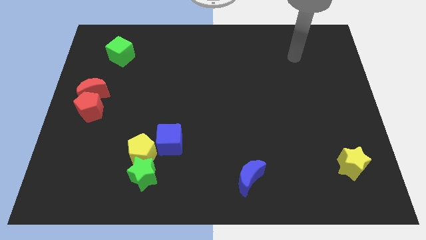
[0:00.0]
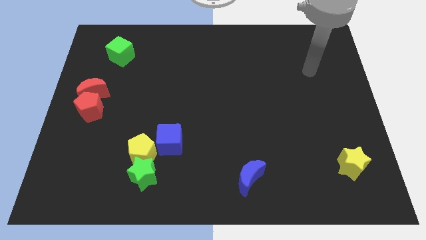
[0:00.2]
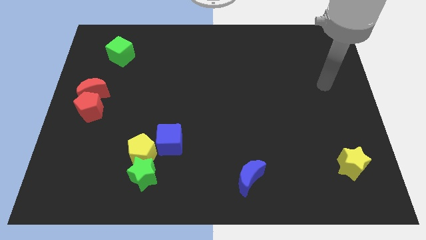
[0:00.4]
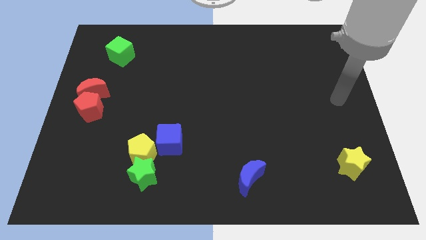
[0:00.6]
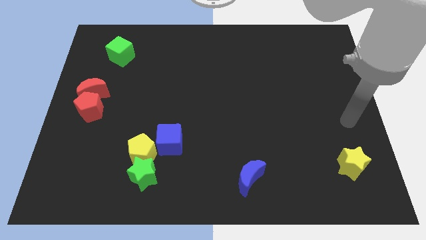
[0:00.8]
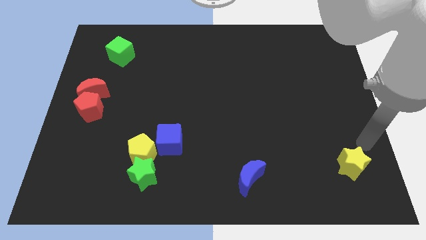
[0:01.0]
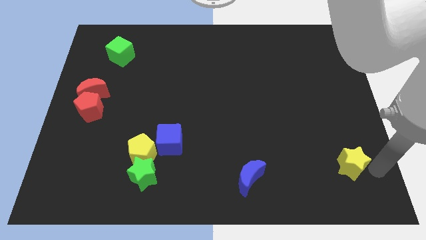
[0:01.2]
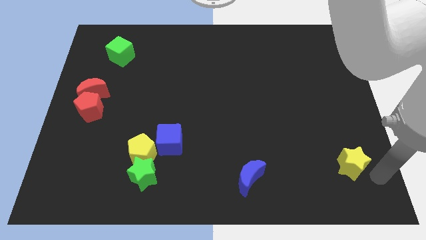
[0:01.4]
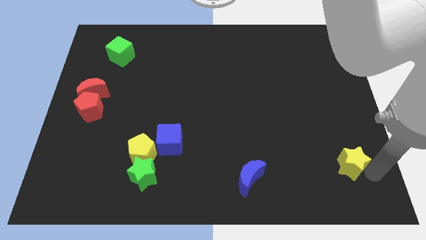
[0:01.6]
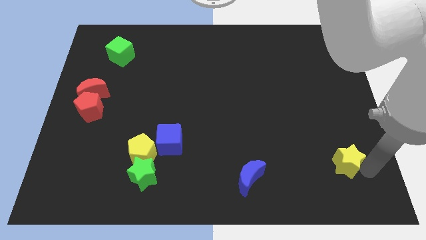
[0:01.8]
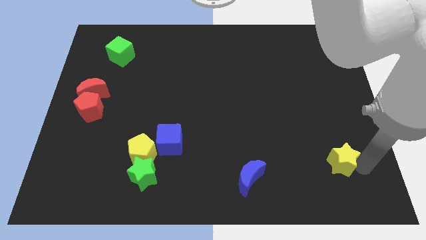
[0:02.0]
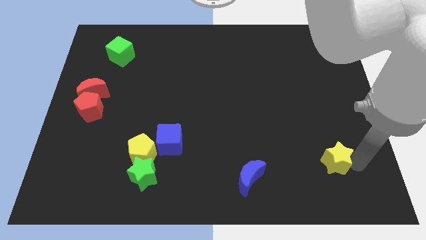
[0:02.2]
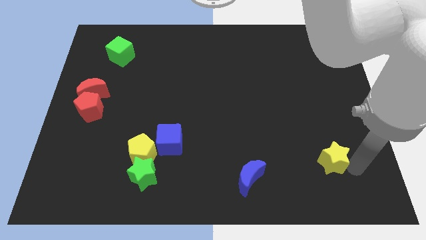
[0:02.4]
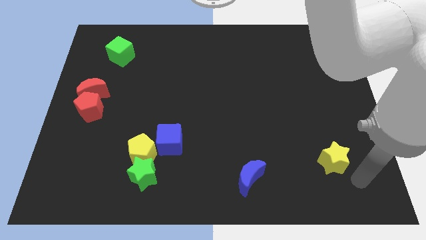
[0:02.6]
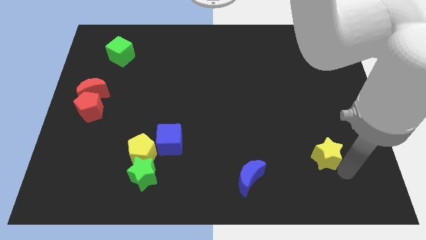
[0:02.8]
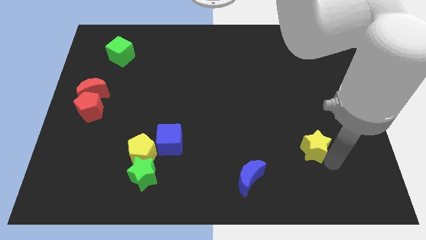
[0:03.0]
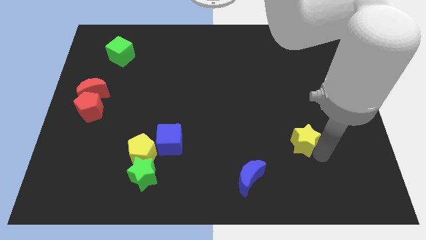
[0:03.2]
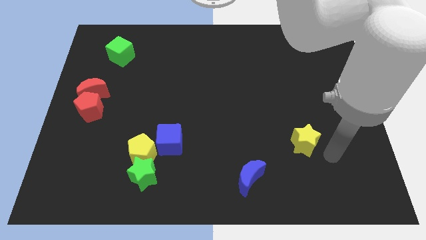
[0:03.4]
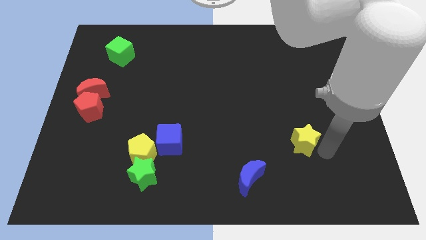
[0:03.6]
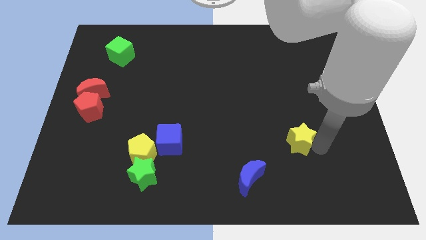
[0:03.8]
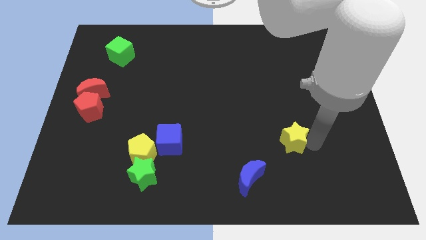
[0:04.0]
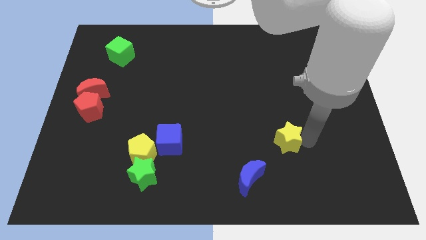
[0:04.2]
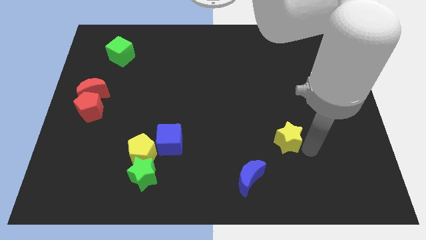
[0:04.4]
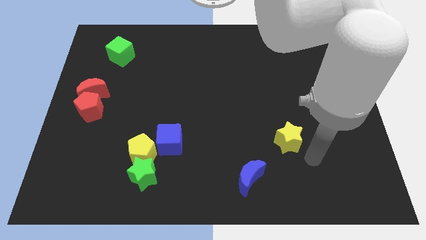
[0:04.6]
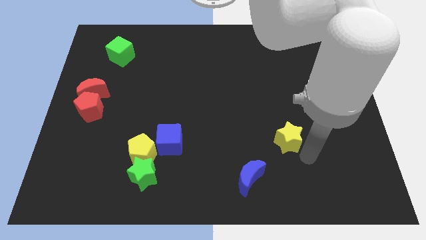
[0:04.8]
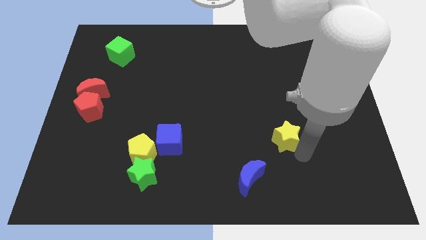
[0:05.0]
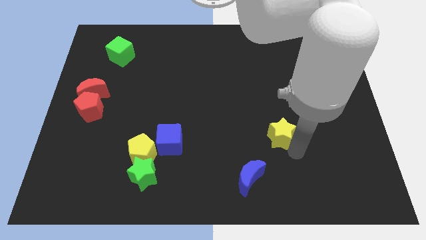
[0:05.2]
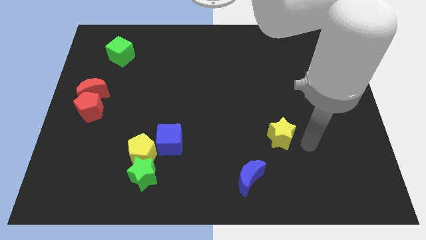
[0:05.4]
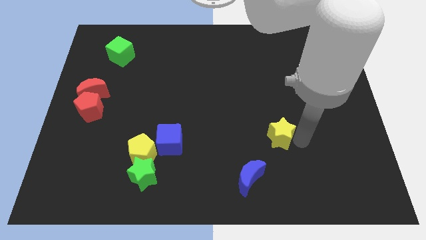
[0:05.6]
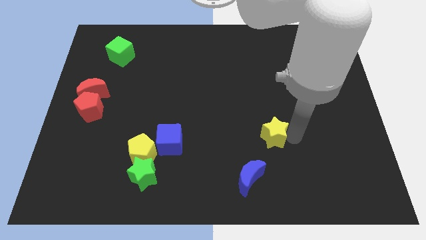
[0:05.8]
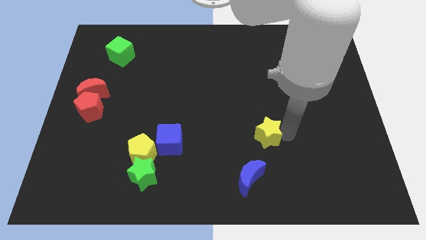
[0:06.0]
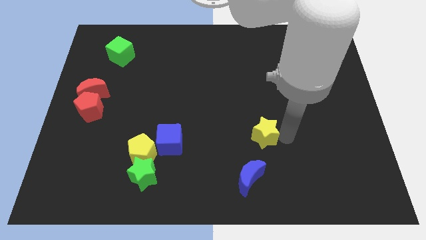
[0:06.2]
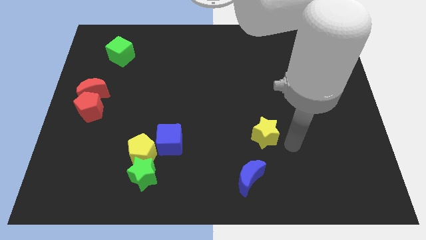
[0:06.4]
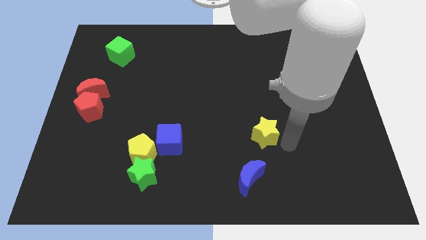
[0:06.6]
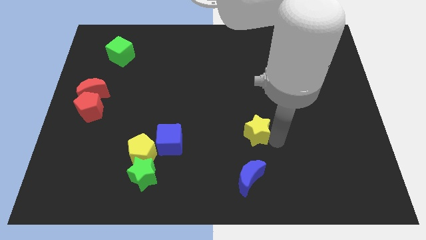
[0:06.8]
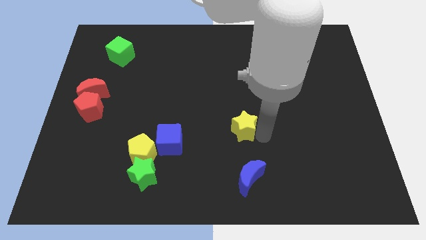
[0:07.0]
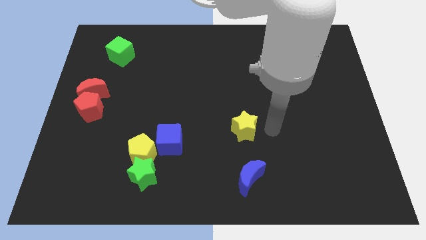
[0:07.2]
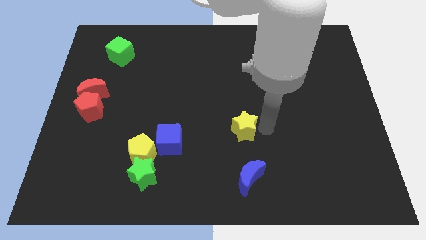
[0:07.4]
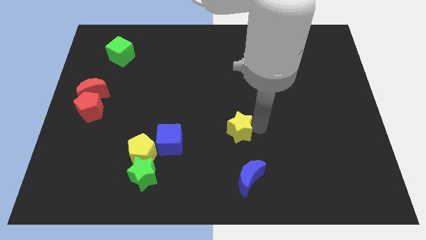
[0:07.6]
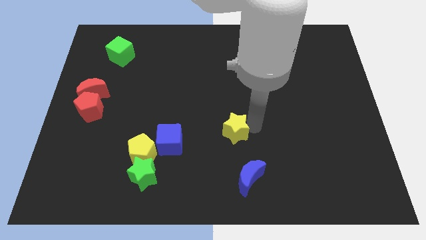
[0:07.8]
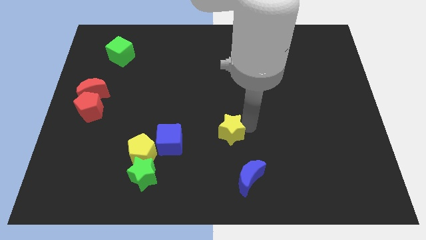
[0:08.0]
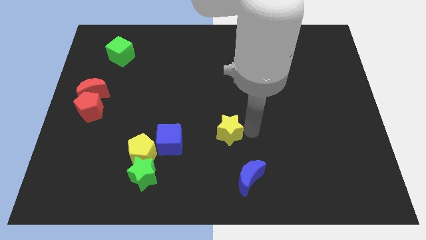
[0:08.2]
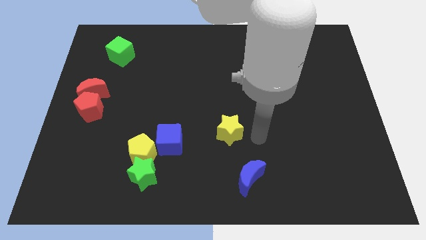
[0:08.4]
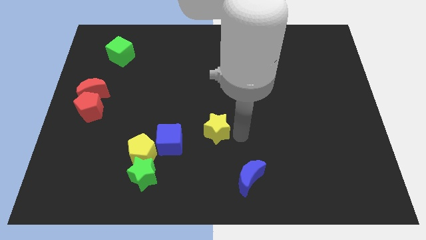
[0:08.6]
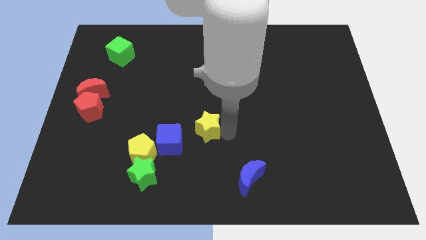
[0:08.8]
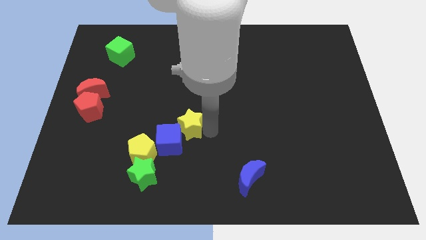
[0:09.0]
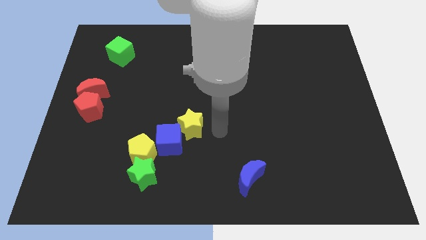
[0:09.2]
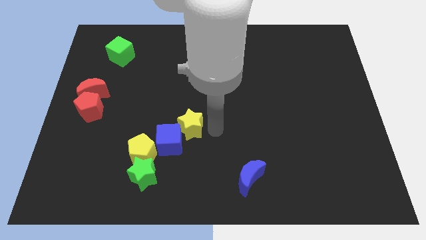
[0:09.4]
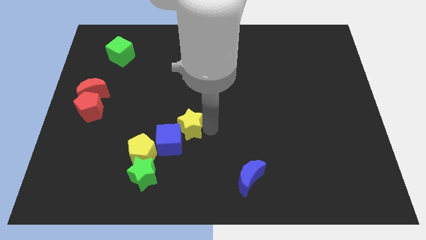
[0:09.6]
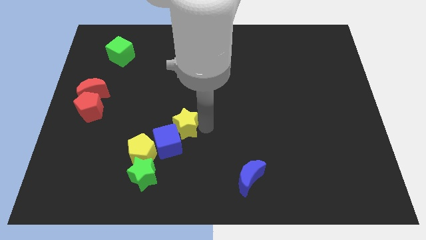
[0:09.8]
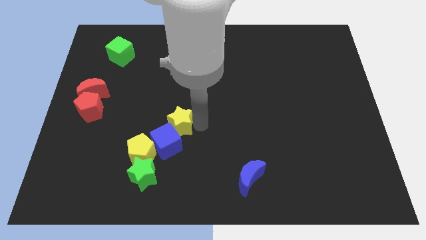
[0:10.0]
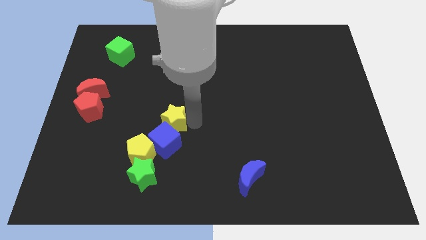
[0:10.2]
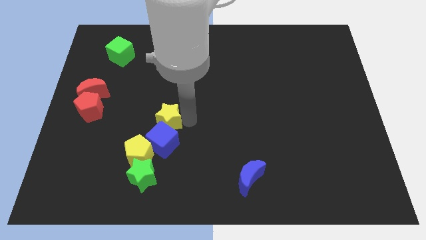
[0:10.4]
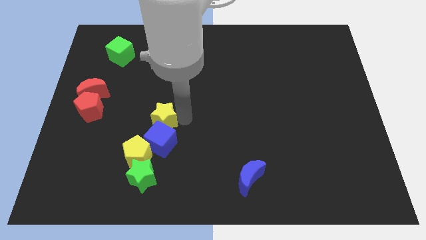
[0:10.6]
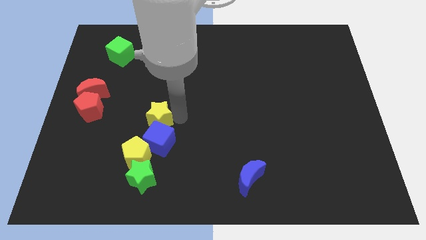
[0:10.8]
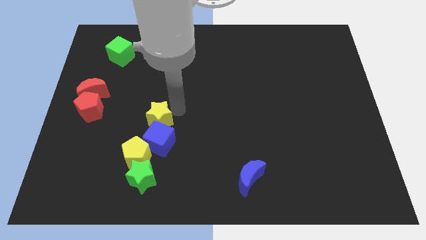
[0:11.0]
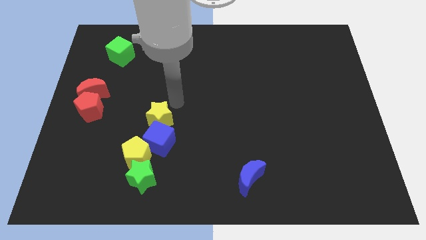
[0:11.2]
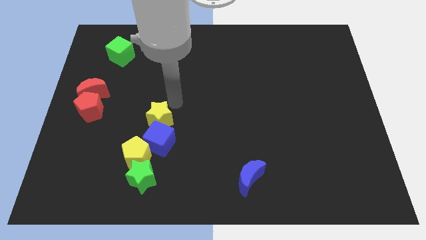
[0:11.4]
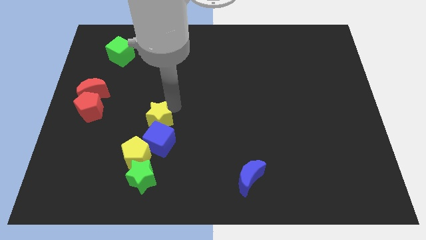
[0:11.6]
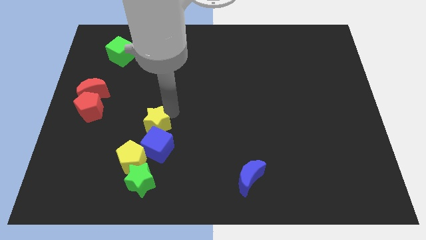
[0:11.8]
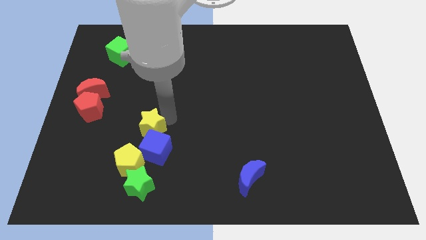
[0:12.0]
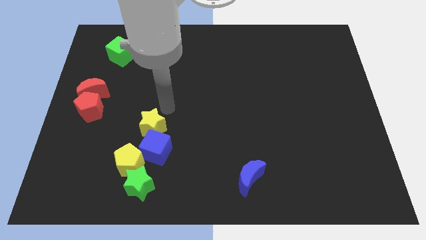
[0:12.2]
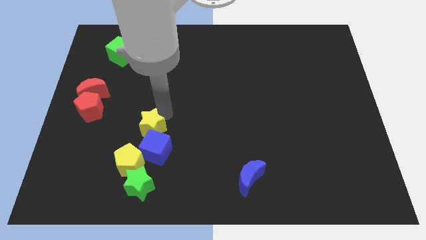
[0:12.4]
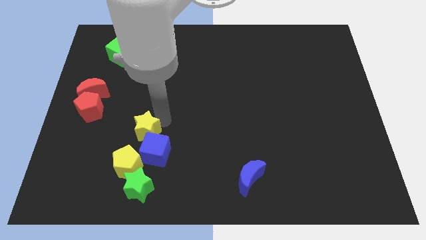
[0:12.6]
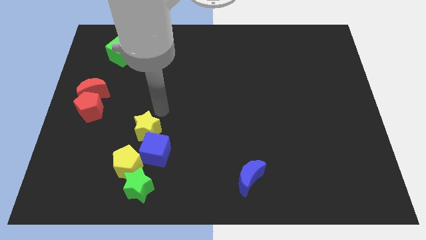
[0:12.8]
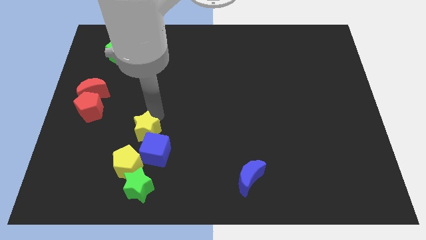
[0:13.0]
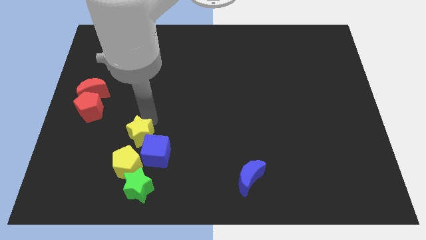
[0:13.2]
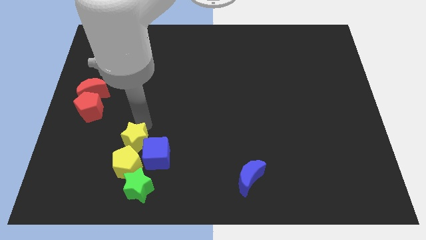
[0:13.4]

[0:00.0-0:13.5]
push the yellow star to the yellow pentagon
